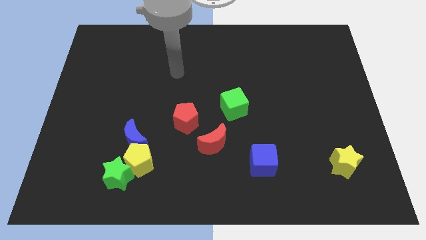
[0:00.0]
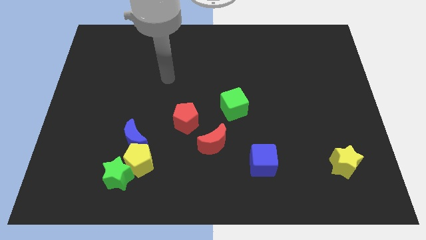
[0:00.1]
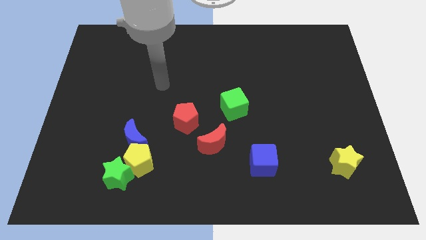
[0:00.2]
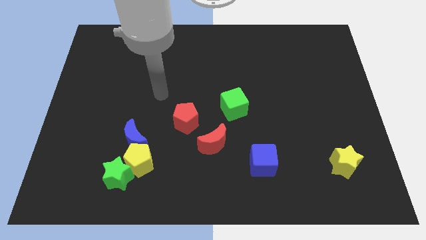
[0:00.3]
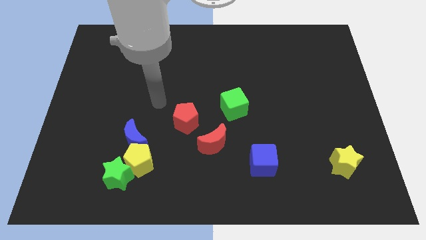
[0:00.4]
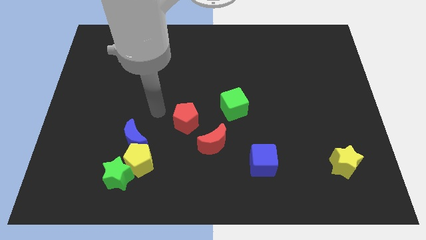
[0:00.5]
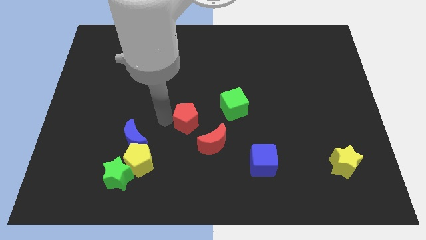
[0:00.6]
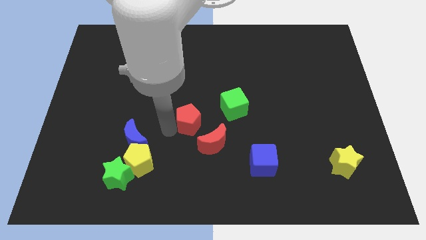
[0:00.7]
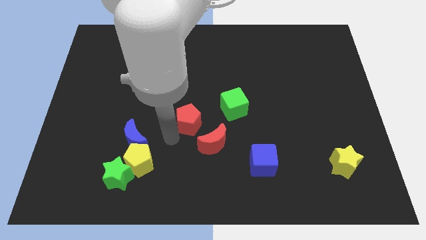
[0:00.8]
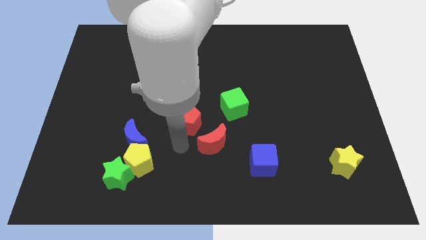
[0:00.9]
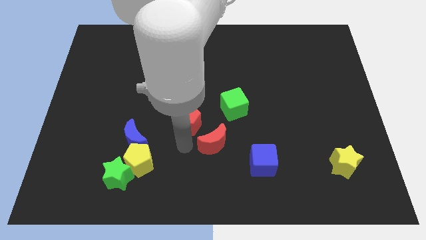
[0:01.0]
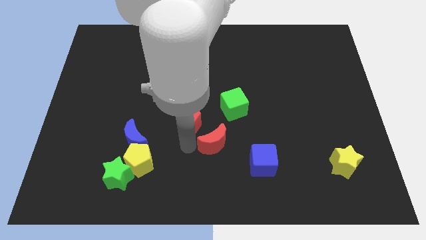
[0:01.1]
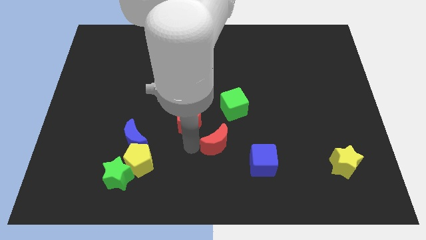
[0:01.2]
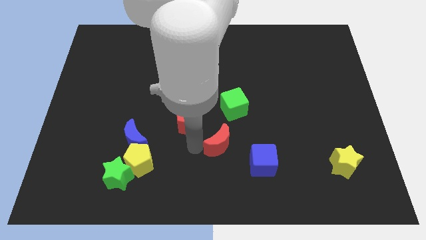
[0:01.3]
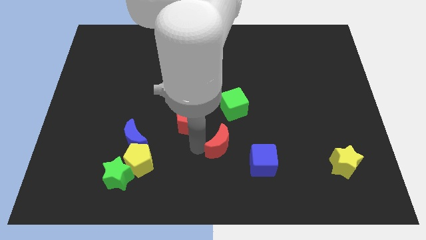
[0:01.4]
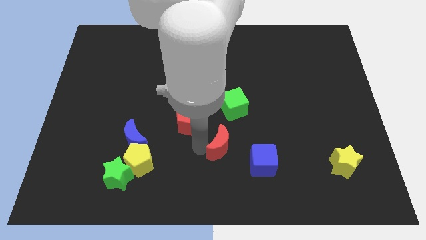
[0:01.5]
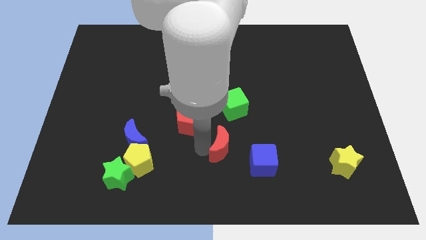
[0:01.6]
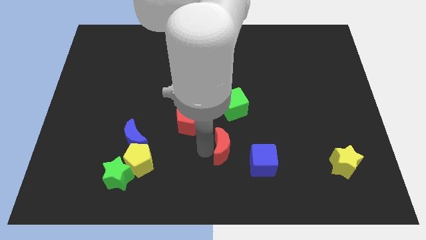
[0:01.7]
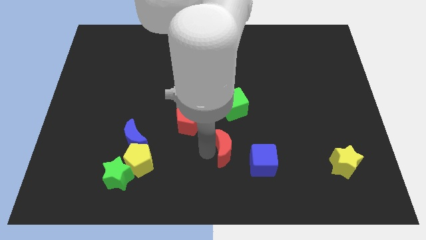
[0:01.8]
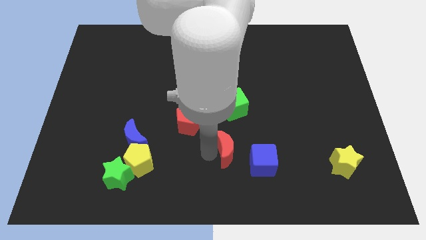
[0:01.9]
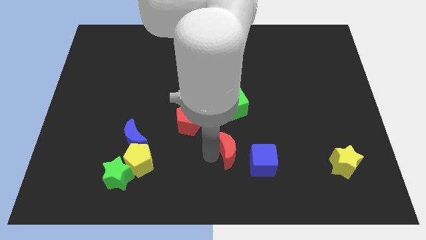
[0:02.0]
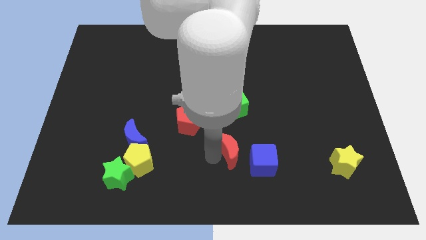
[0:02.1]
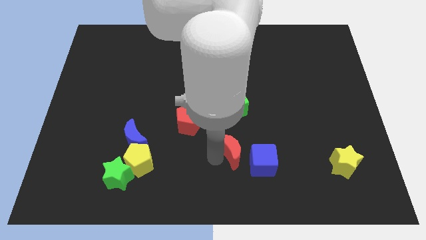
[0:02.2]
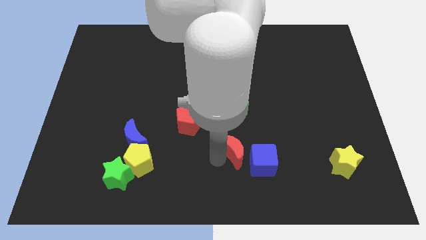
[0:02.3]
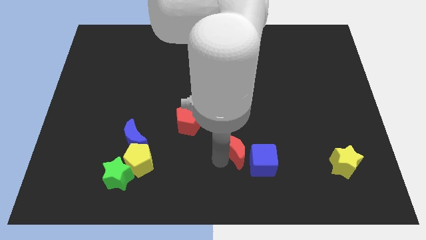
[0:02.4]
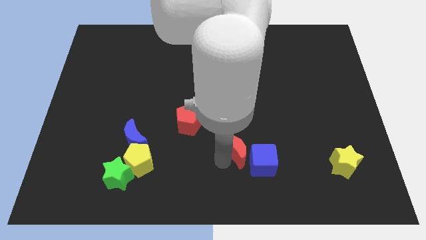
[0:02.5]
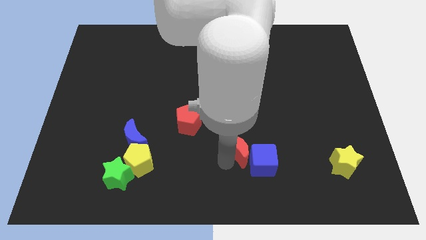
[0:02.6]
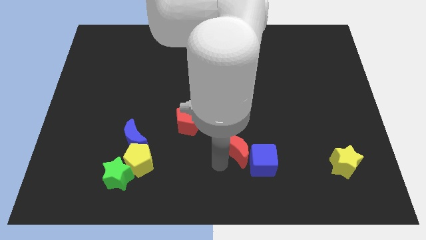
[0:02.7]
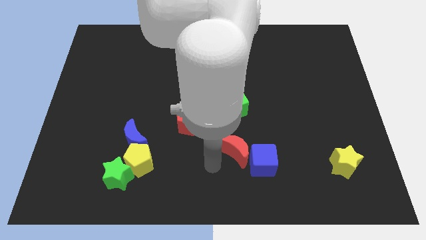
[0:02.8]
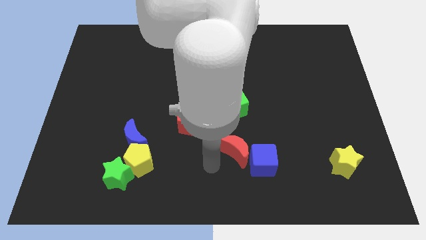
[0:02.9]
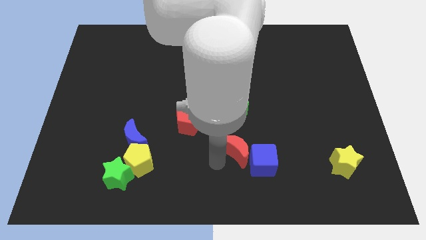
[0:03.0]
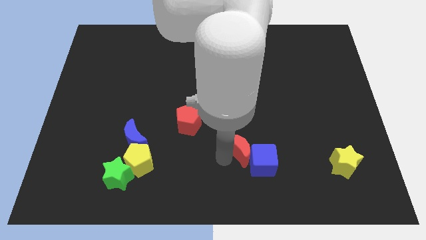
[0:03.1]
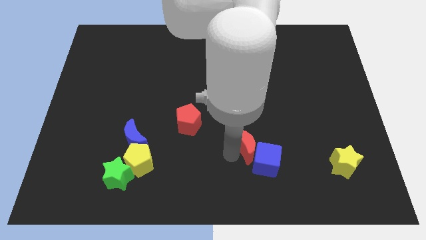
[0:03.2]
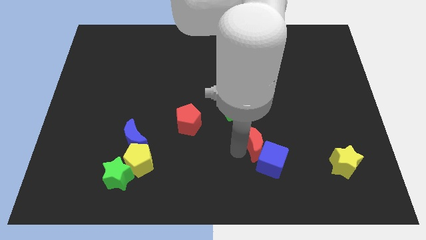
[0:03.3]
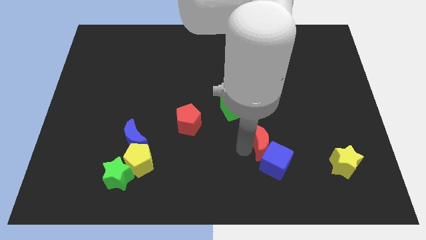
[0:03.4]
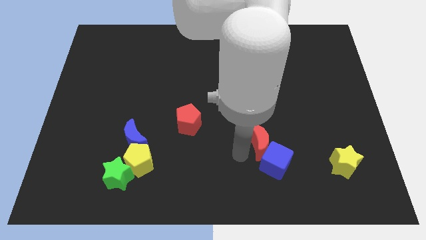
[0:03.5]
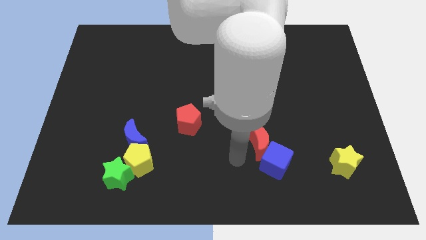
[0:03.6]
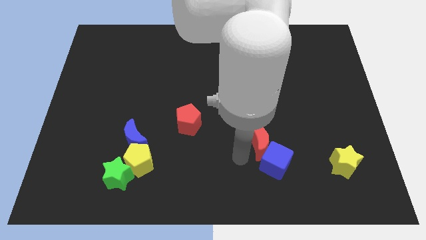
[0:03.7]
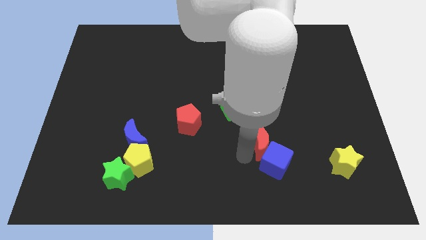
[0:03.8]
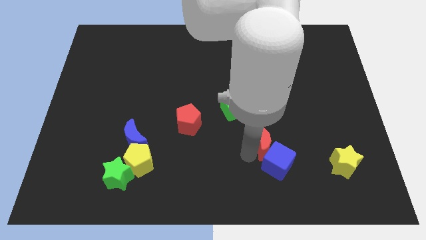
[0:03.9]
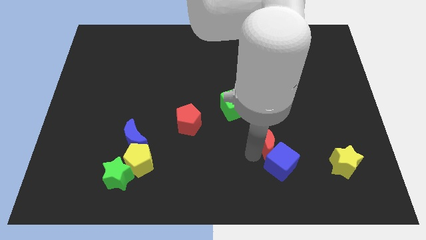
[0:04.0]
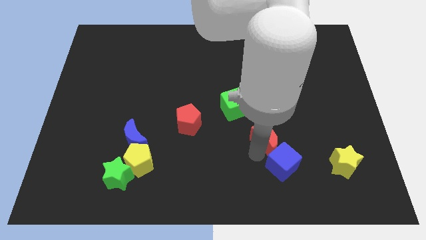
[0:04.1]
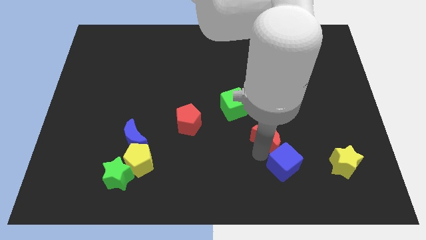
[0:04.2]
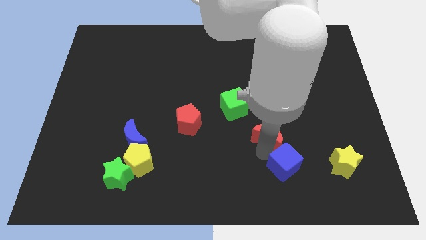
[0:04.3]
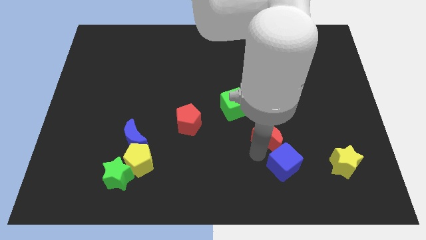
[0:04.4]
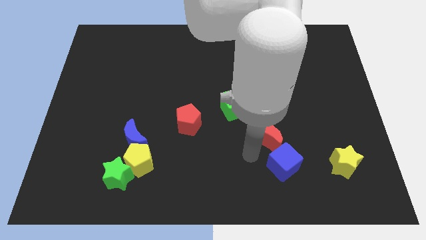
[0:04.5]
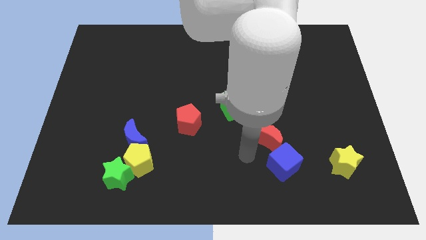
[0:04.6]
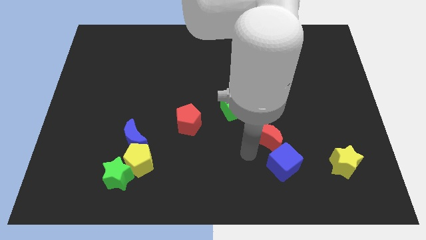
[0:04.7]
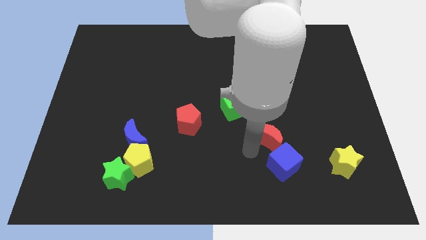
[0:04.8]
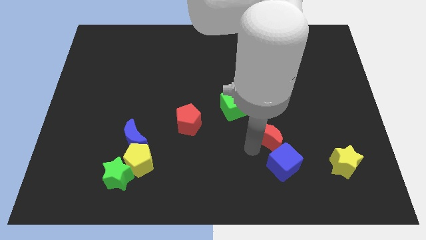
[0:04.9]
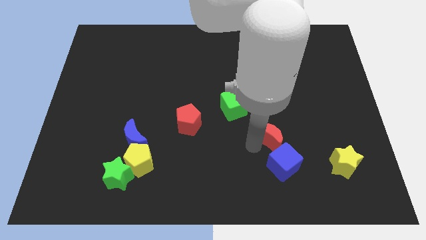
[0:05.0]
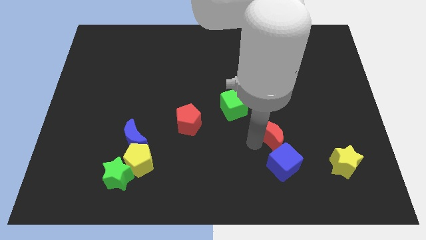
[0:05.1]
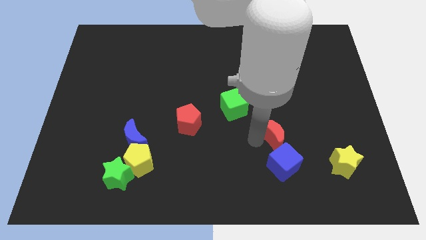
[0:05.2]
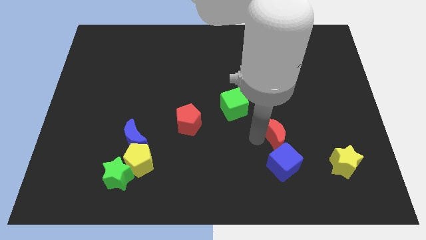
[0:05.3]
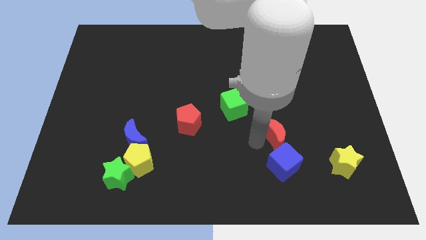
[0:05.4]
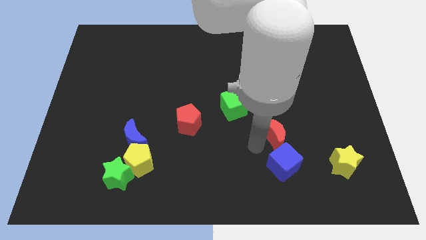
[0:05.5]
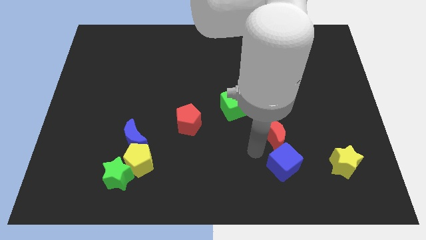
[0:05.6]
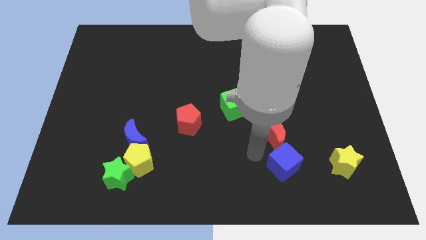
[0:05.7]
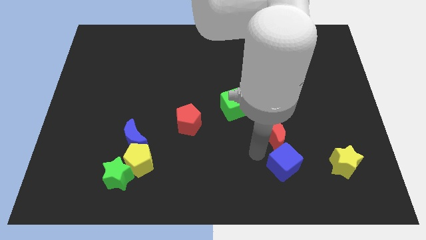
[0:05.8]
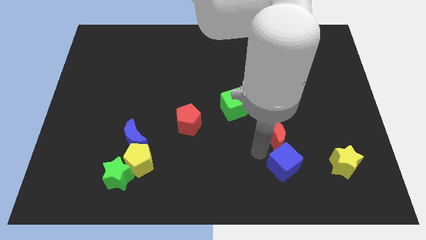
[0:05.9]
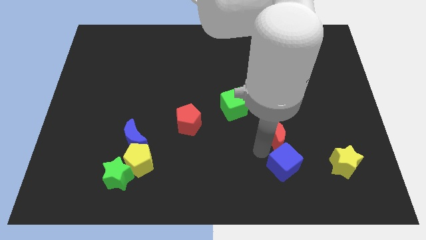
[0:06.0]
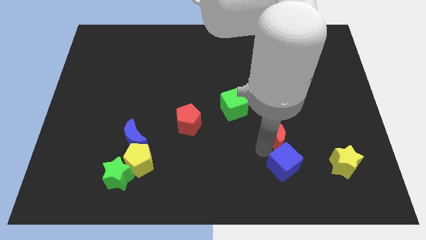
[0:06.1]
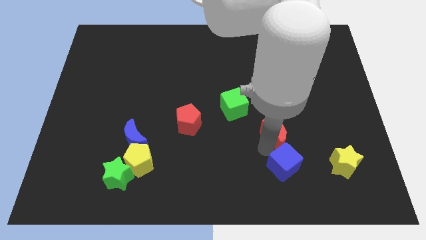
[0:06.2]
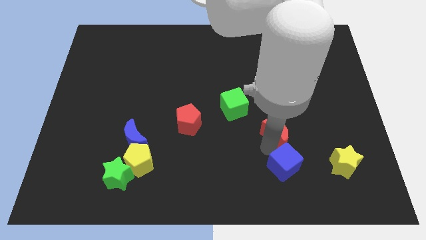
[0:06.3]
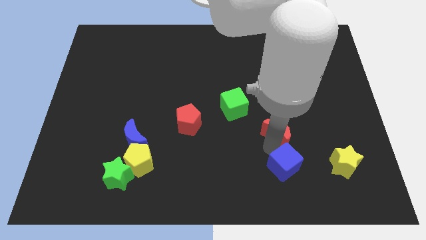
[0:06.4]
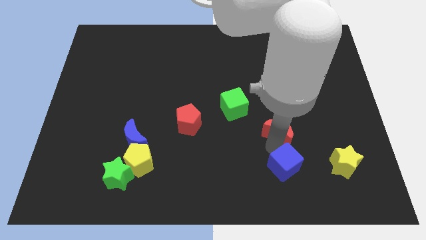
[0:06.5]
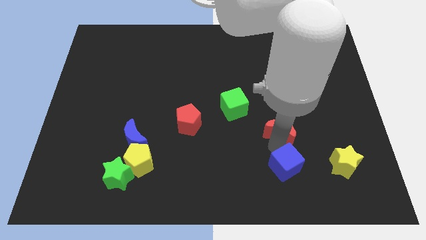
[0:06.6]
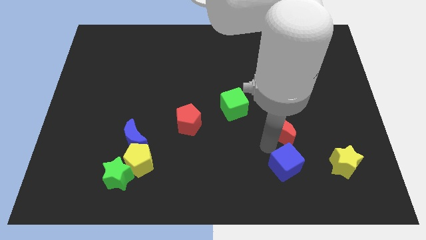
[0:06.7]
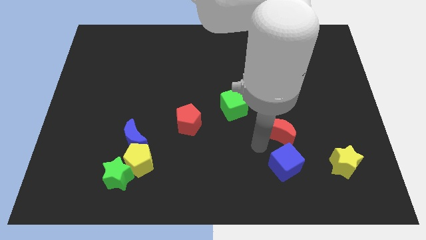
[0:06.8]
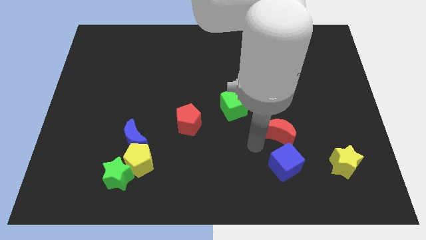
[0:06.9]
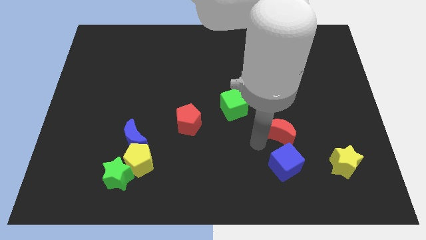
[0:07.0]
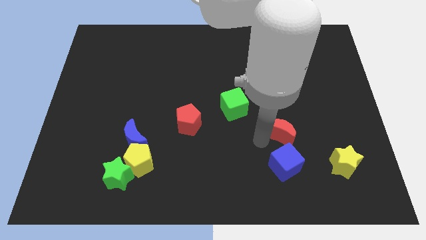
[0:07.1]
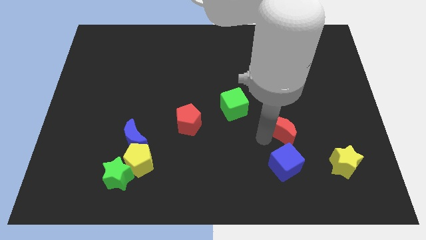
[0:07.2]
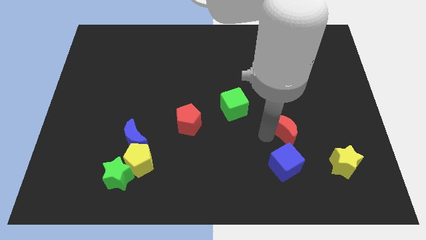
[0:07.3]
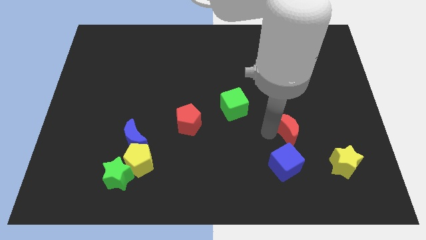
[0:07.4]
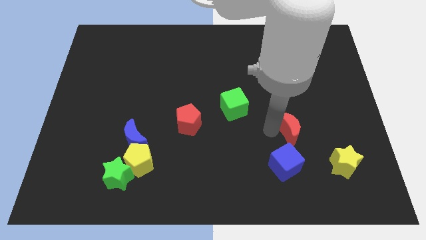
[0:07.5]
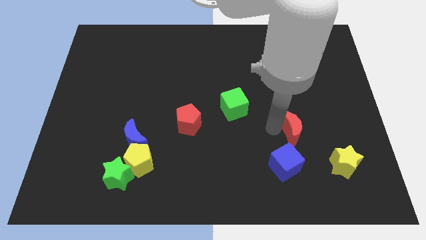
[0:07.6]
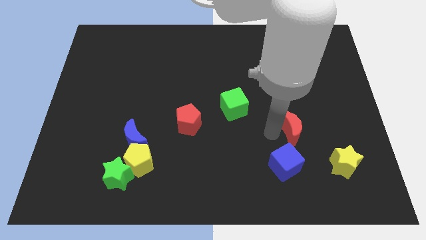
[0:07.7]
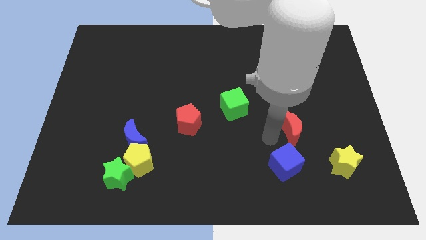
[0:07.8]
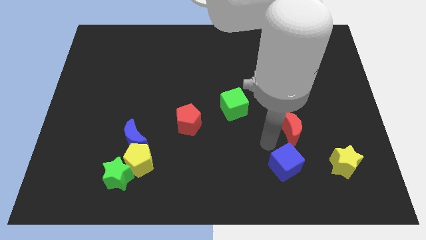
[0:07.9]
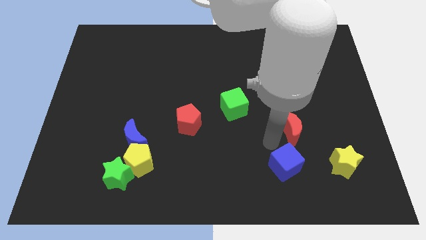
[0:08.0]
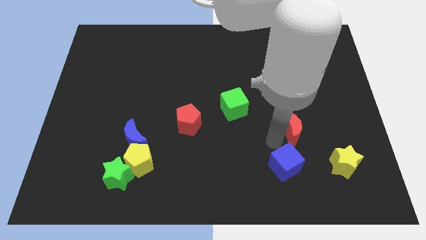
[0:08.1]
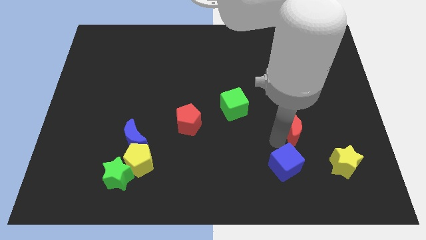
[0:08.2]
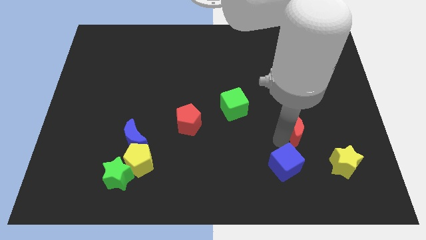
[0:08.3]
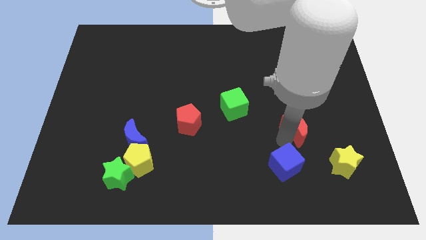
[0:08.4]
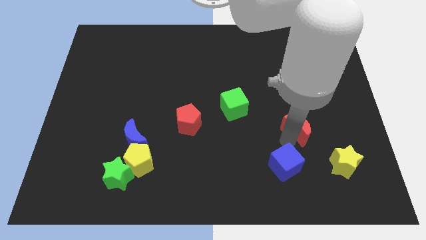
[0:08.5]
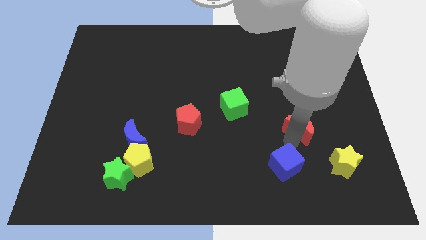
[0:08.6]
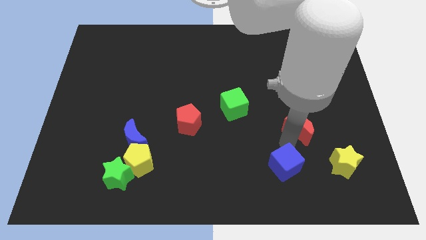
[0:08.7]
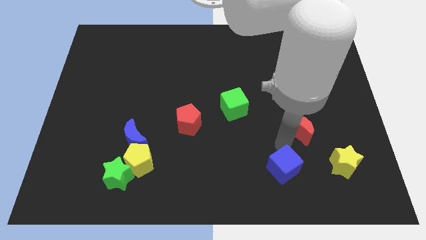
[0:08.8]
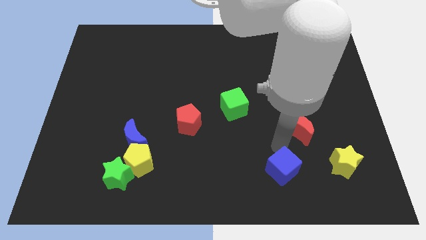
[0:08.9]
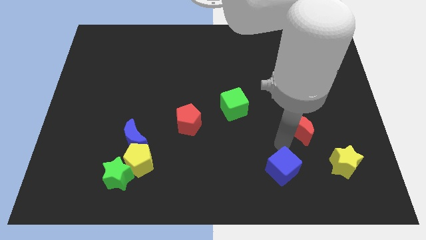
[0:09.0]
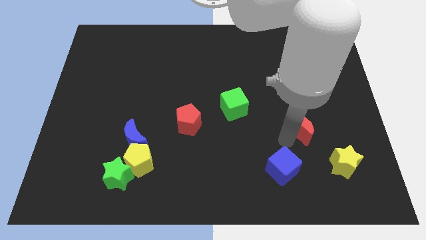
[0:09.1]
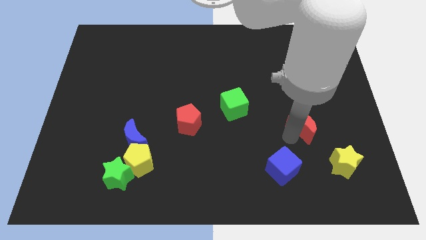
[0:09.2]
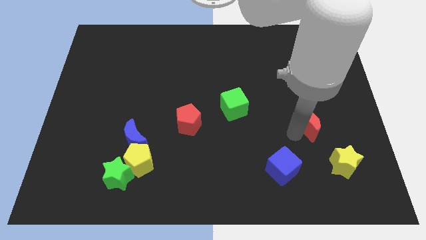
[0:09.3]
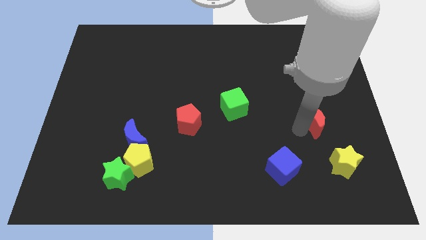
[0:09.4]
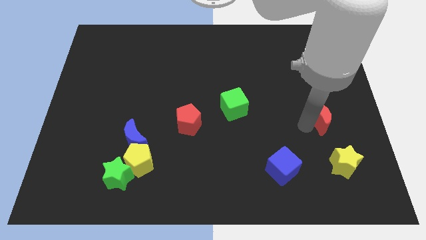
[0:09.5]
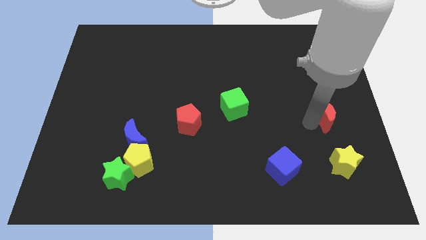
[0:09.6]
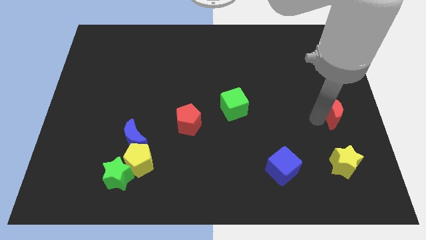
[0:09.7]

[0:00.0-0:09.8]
put the red moon to the right side of the board
